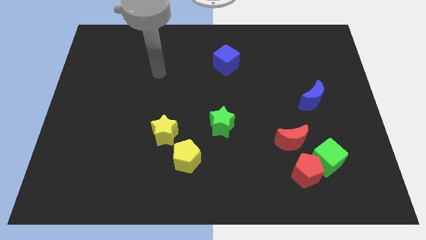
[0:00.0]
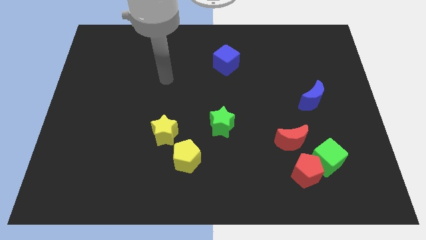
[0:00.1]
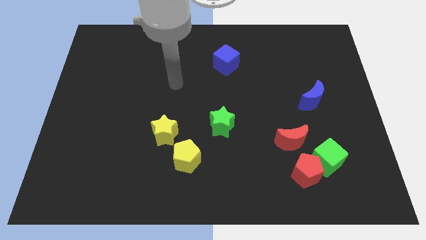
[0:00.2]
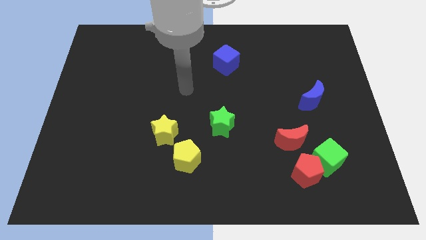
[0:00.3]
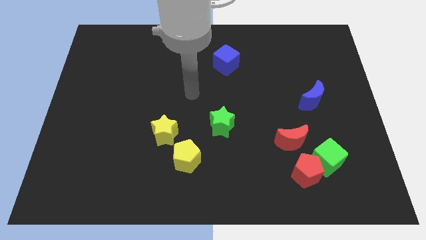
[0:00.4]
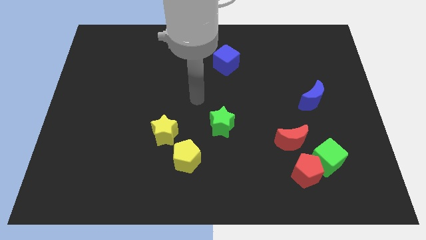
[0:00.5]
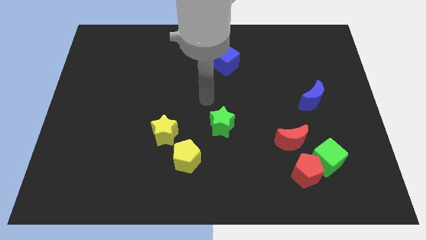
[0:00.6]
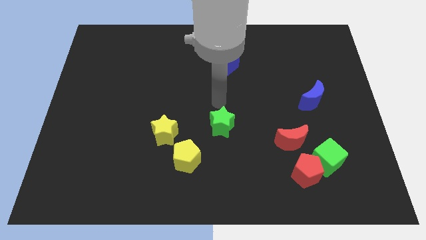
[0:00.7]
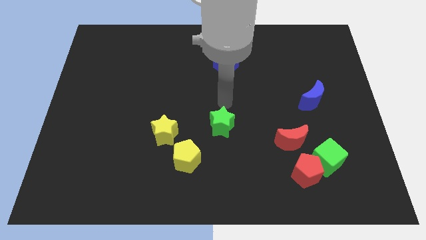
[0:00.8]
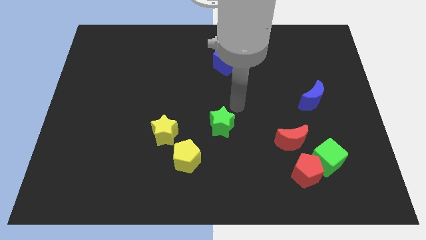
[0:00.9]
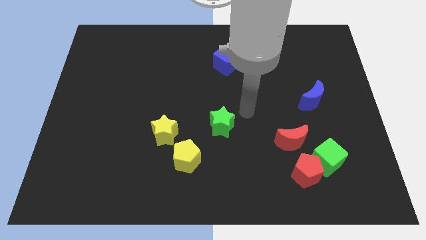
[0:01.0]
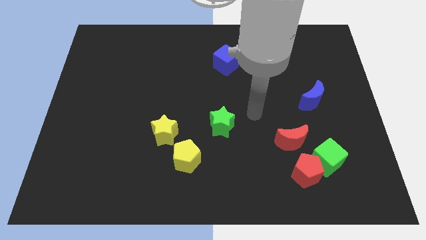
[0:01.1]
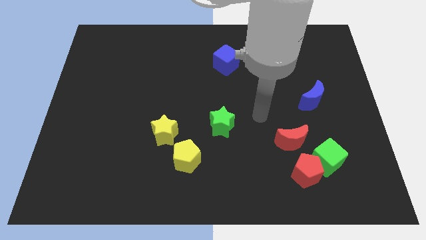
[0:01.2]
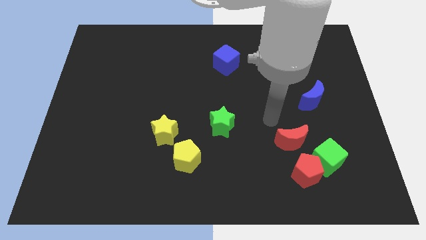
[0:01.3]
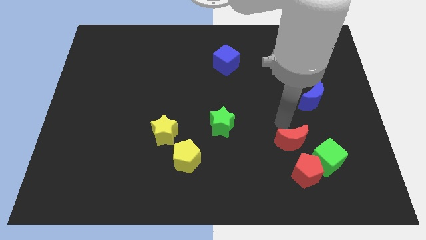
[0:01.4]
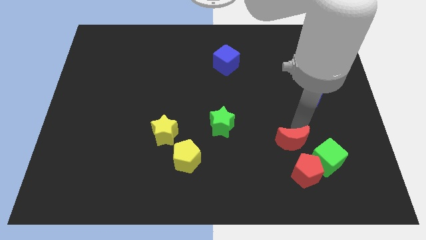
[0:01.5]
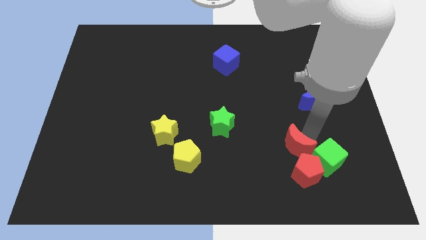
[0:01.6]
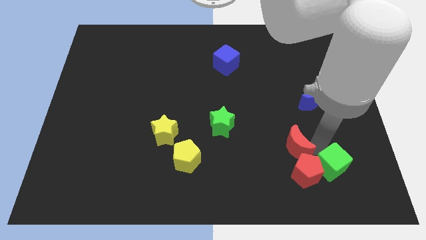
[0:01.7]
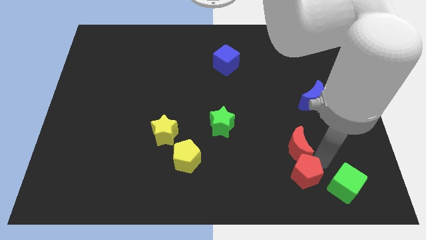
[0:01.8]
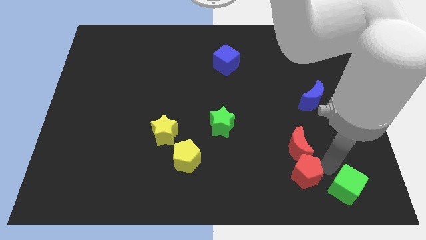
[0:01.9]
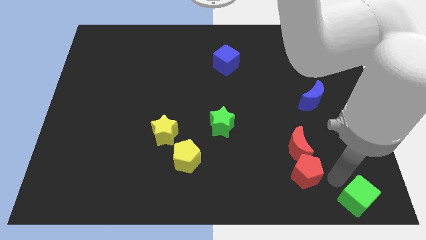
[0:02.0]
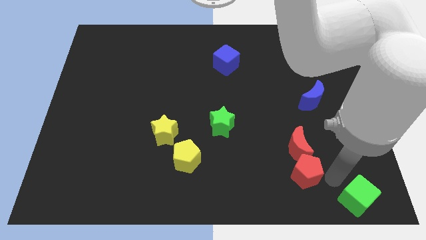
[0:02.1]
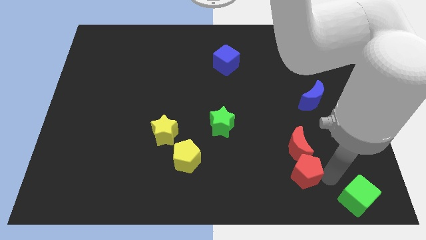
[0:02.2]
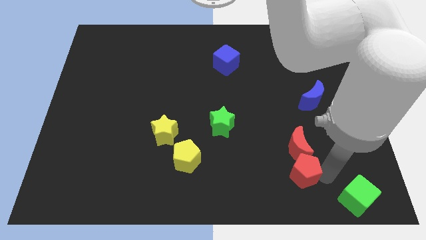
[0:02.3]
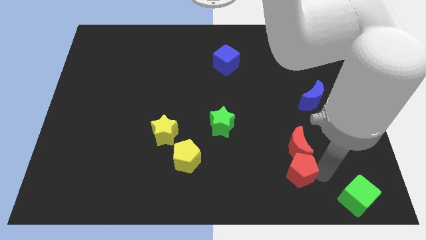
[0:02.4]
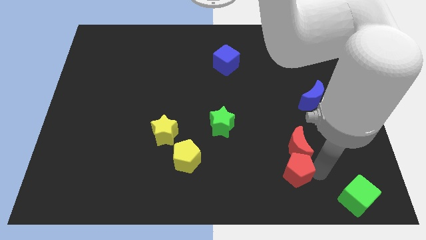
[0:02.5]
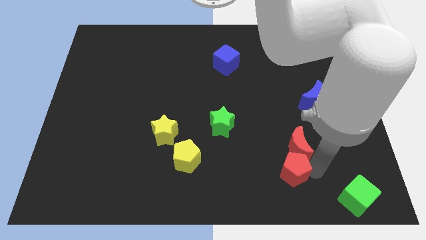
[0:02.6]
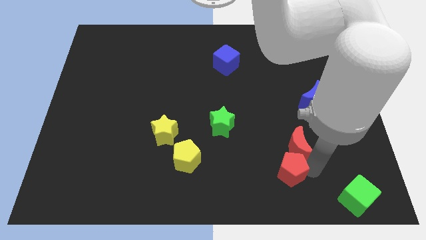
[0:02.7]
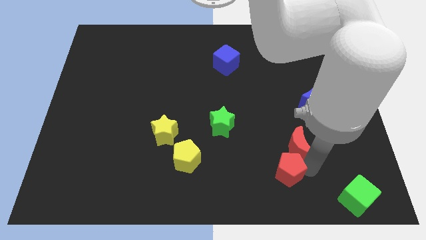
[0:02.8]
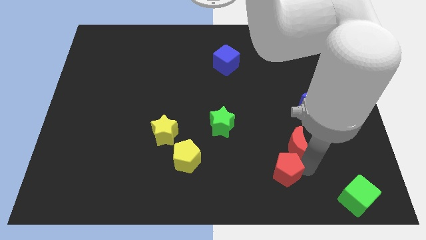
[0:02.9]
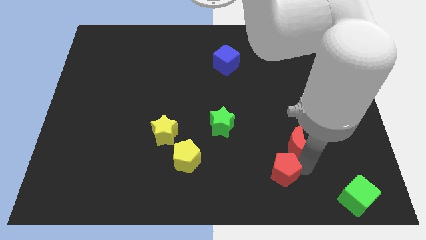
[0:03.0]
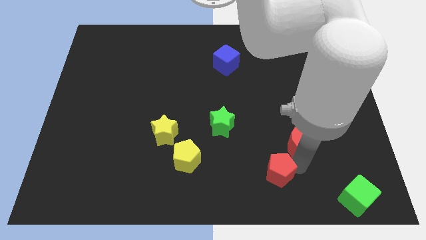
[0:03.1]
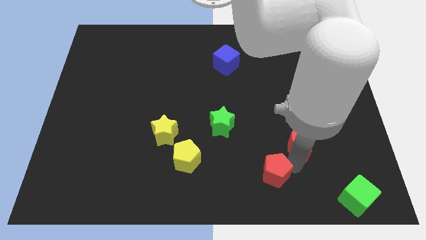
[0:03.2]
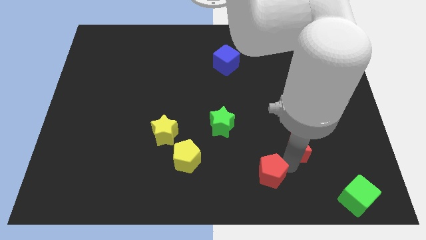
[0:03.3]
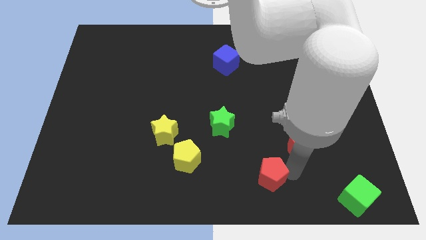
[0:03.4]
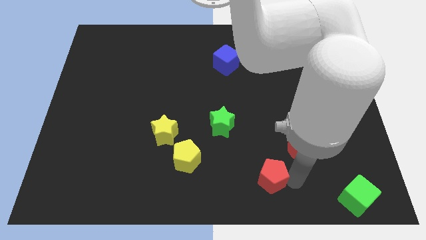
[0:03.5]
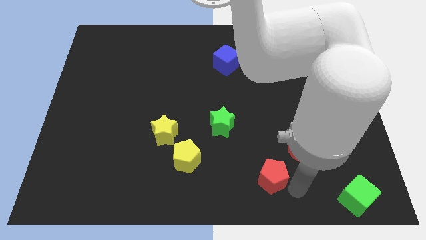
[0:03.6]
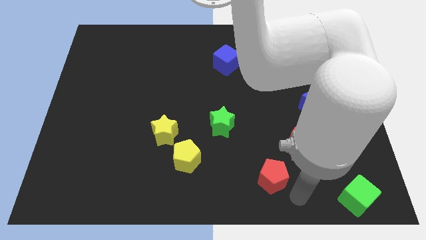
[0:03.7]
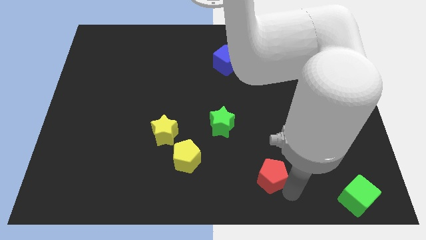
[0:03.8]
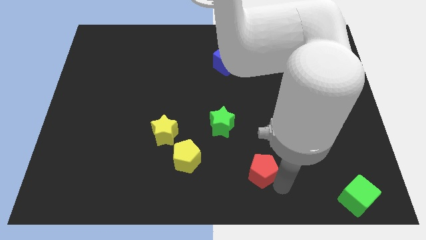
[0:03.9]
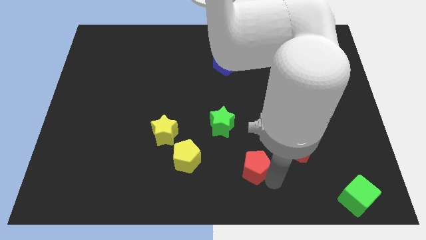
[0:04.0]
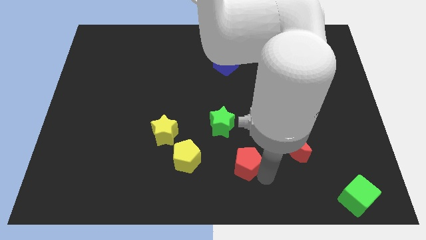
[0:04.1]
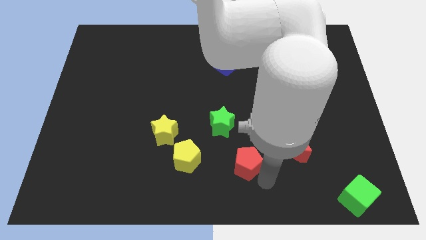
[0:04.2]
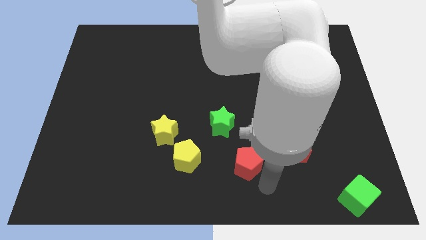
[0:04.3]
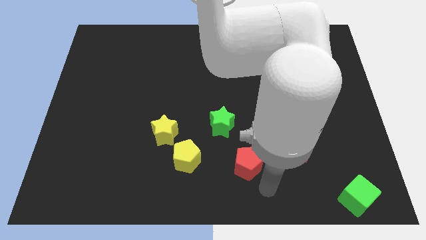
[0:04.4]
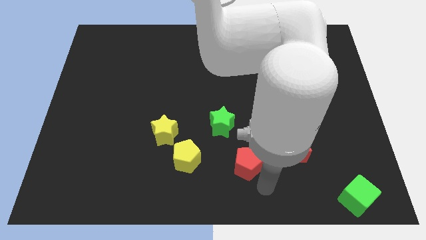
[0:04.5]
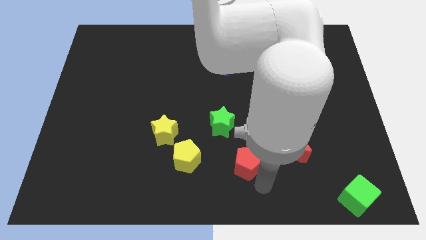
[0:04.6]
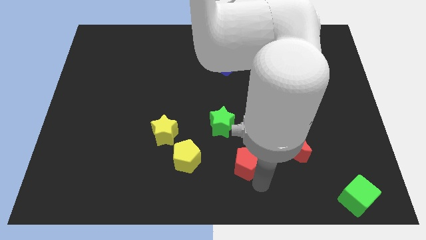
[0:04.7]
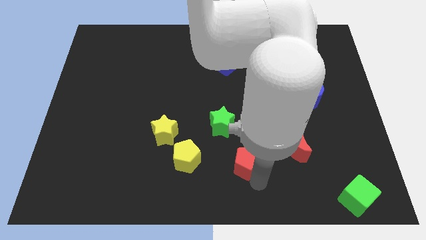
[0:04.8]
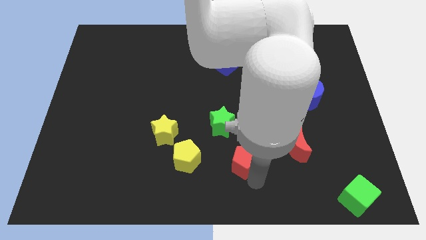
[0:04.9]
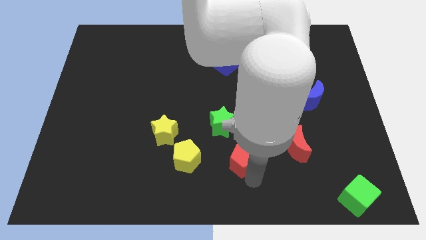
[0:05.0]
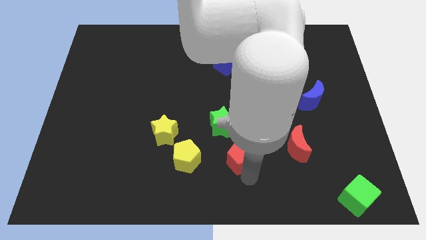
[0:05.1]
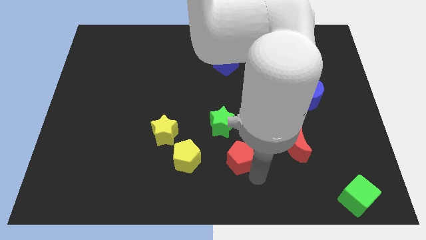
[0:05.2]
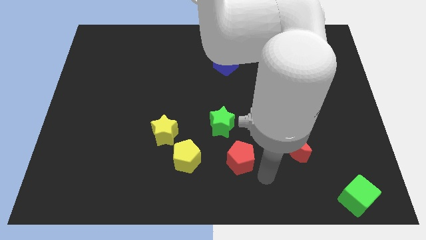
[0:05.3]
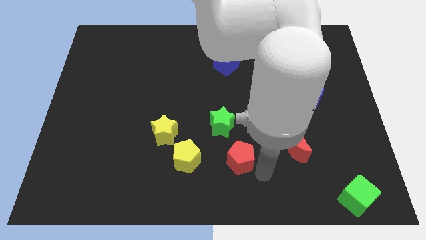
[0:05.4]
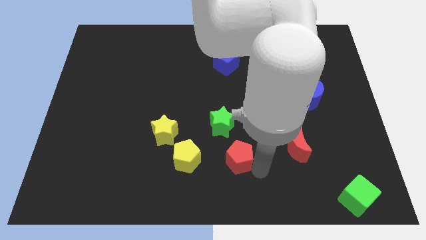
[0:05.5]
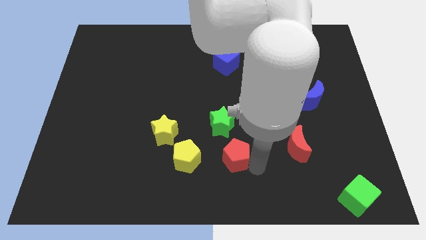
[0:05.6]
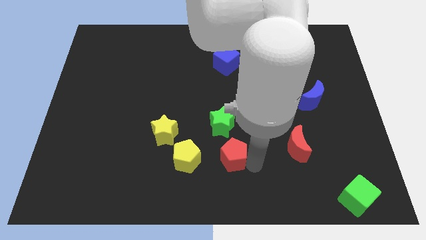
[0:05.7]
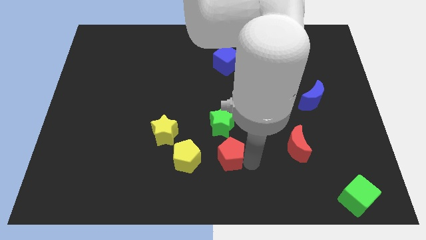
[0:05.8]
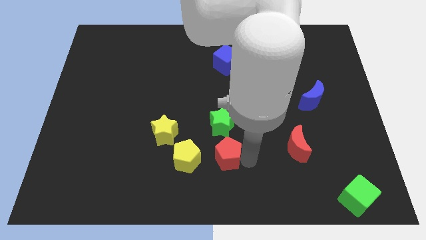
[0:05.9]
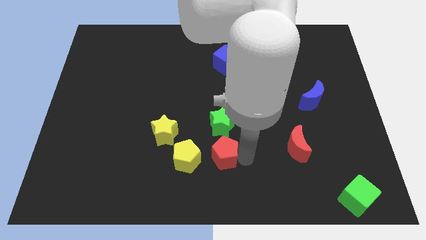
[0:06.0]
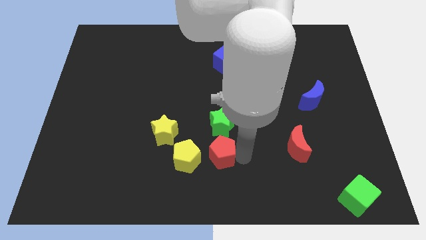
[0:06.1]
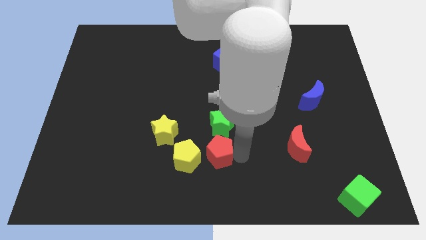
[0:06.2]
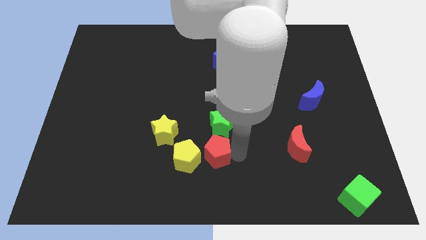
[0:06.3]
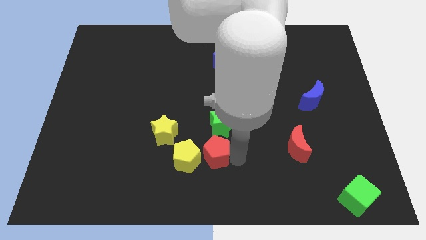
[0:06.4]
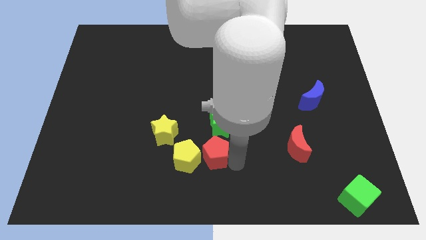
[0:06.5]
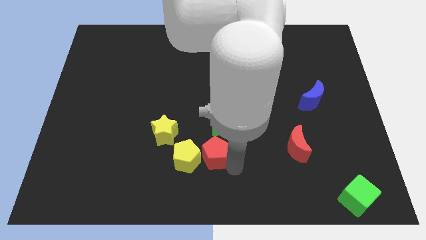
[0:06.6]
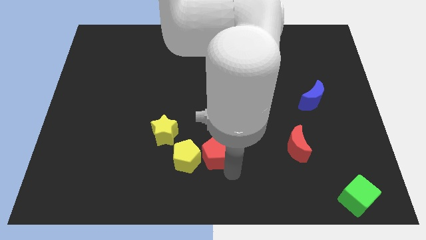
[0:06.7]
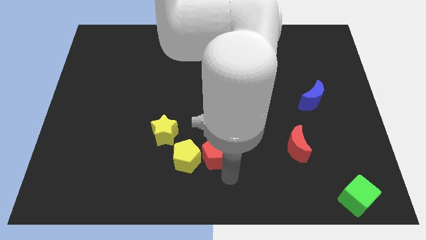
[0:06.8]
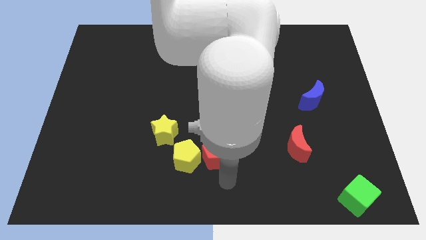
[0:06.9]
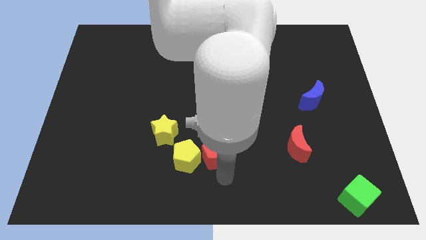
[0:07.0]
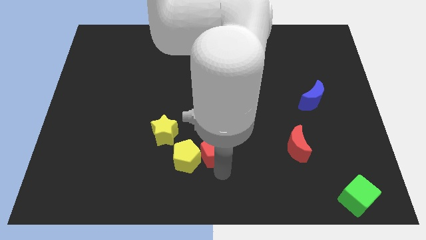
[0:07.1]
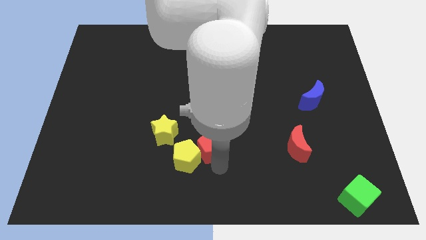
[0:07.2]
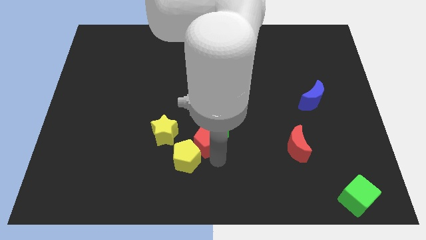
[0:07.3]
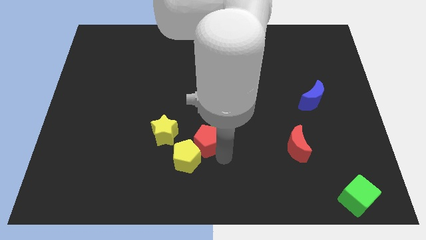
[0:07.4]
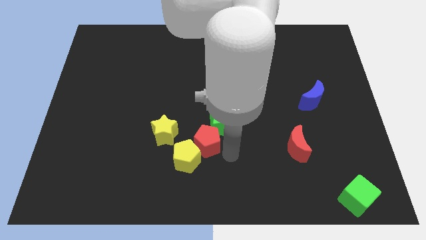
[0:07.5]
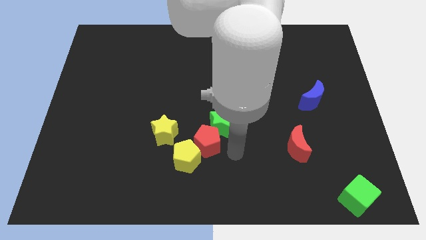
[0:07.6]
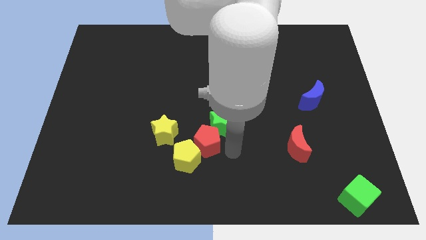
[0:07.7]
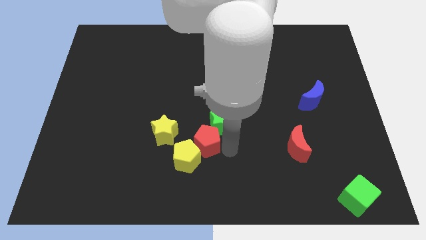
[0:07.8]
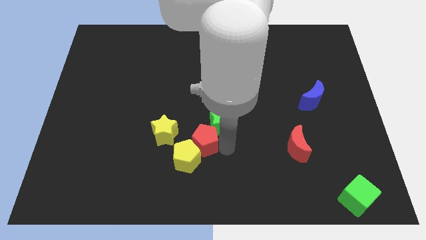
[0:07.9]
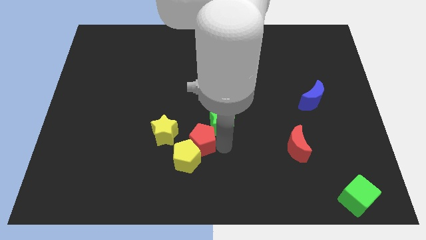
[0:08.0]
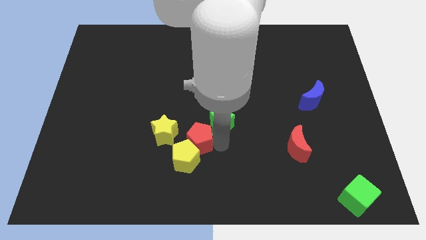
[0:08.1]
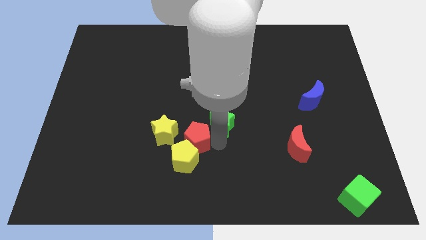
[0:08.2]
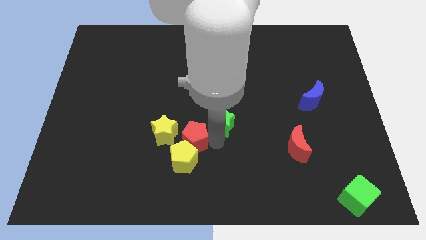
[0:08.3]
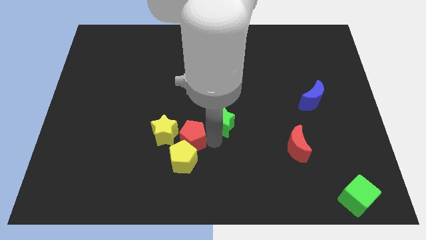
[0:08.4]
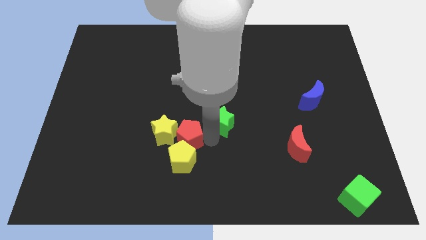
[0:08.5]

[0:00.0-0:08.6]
put the red pentagon towards the yellow star
